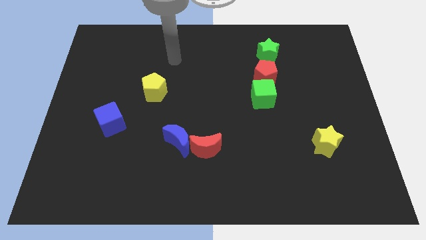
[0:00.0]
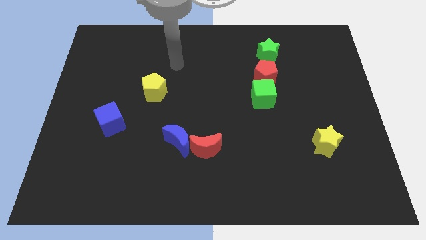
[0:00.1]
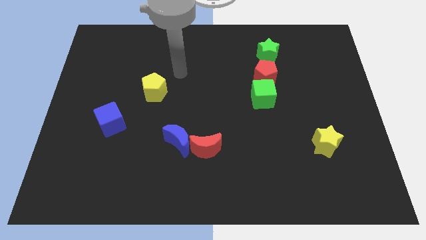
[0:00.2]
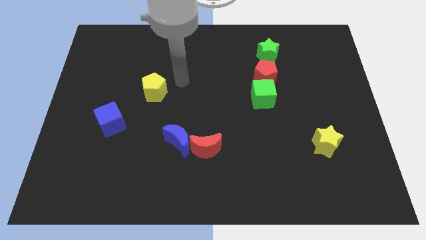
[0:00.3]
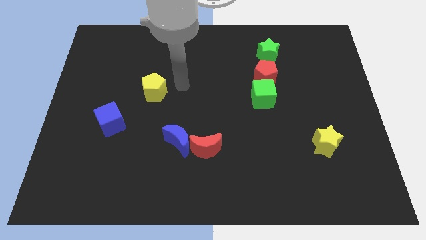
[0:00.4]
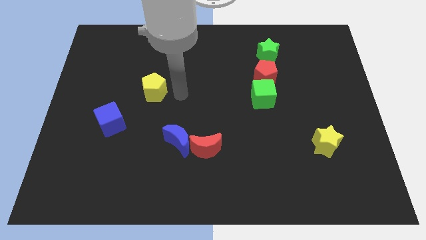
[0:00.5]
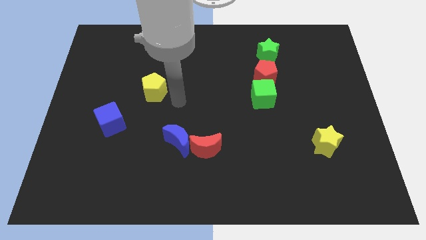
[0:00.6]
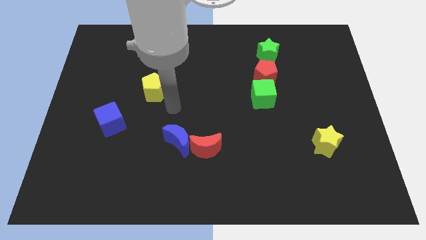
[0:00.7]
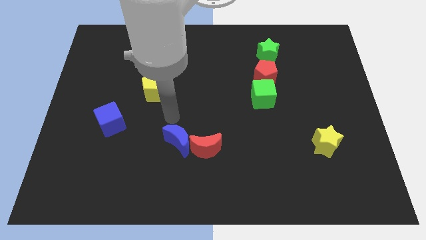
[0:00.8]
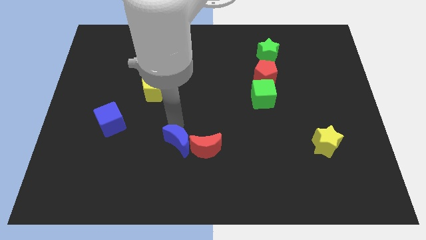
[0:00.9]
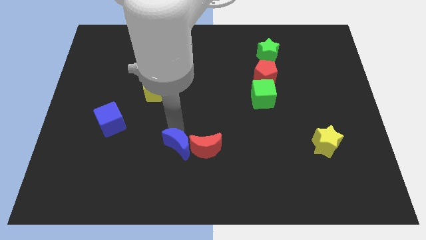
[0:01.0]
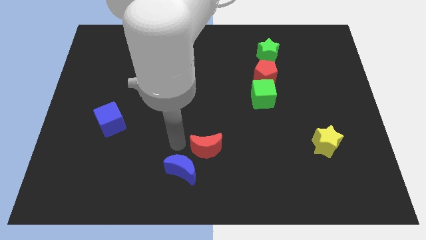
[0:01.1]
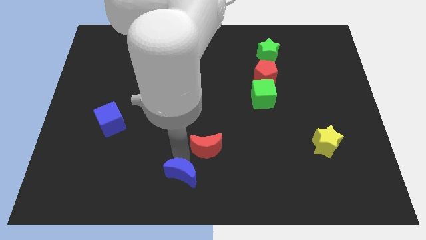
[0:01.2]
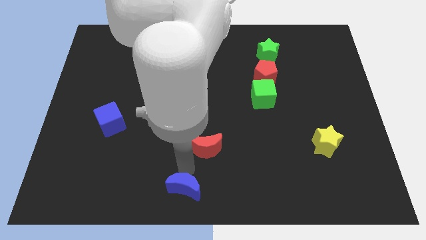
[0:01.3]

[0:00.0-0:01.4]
separate the red moon from the blue moon

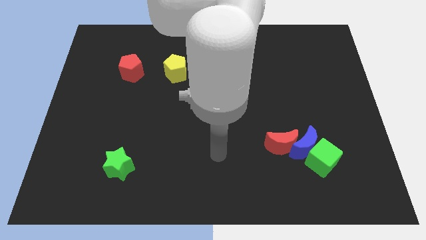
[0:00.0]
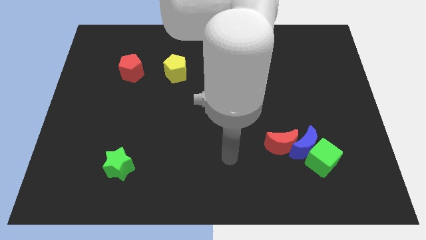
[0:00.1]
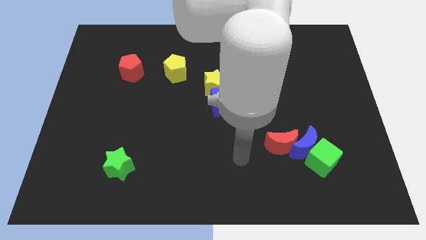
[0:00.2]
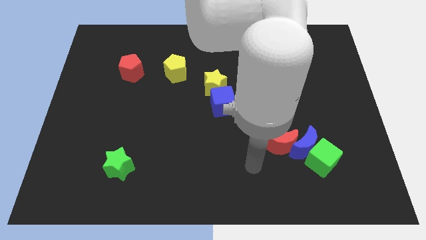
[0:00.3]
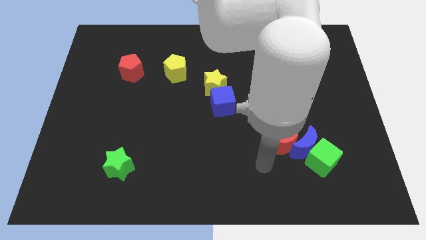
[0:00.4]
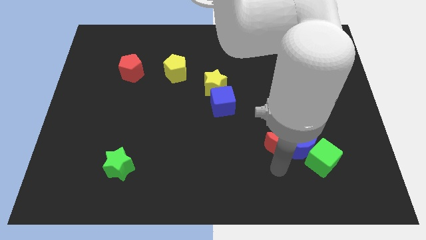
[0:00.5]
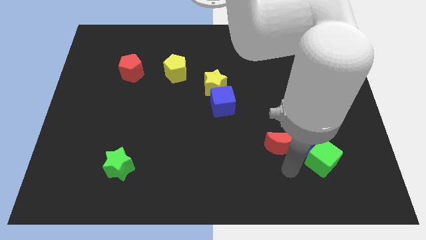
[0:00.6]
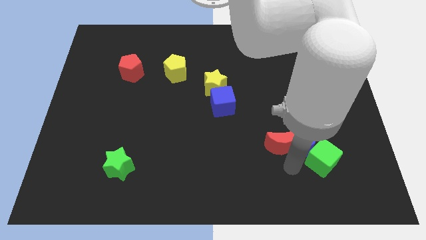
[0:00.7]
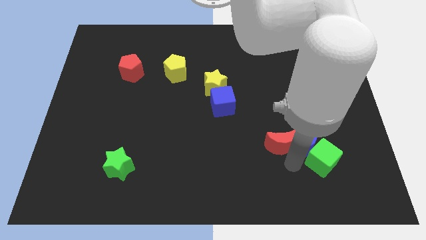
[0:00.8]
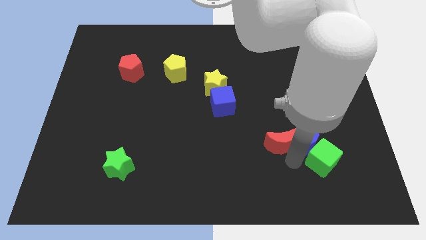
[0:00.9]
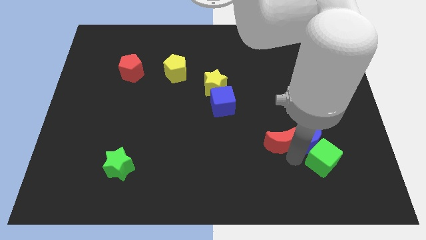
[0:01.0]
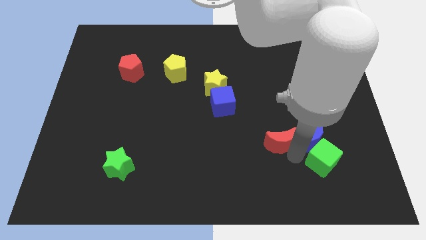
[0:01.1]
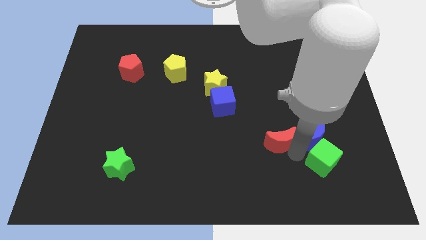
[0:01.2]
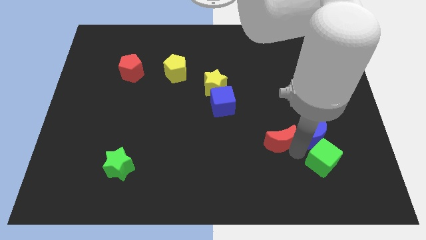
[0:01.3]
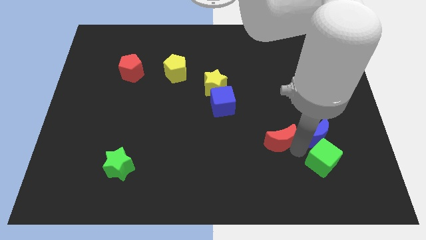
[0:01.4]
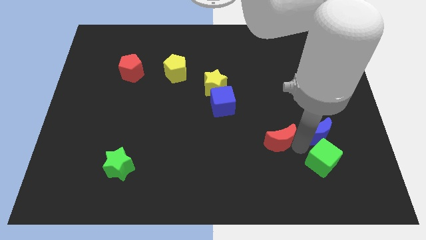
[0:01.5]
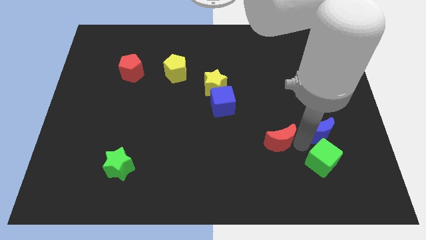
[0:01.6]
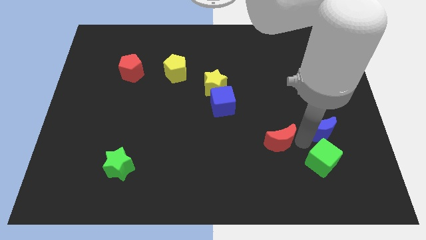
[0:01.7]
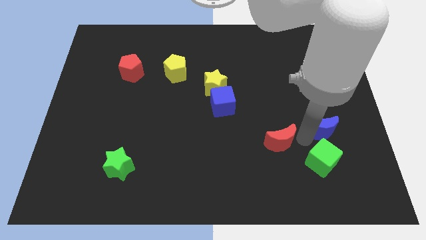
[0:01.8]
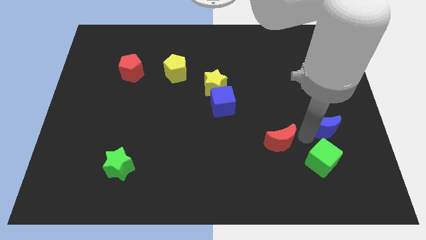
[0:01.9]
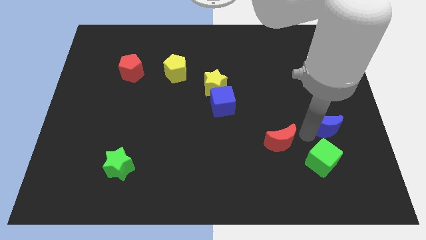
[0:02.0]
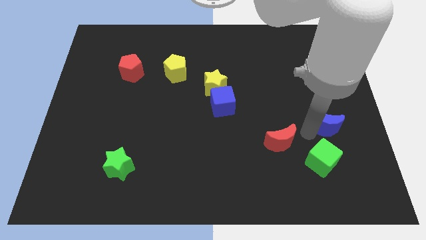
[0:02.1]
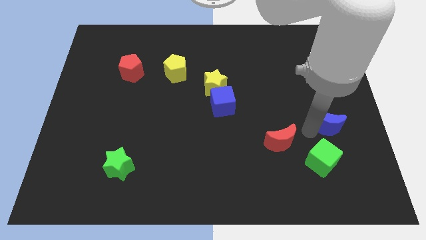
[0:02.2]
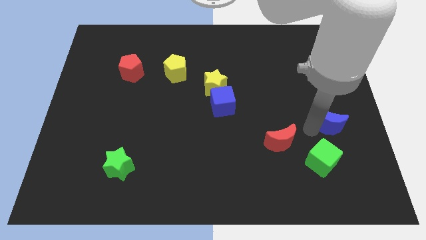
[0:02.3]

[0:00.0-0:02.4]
move the blue moon away from the green cube and red moon

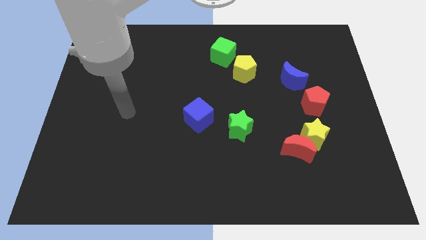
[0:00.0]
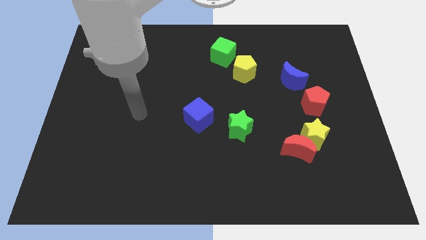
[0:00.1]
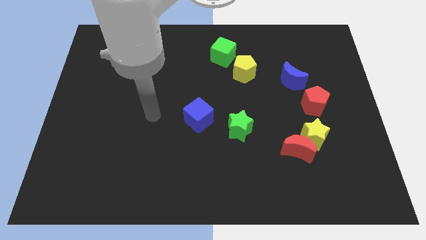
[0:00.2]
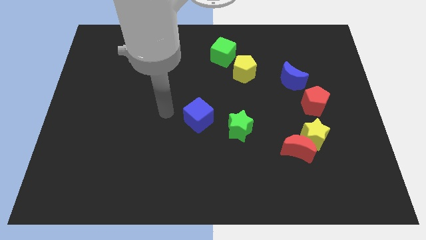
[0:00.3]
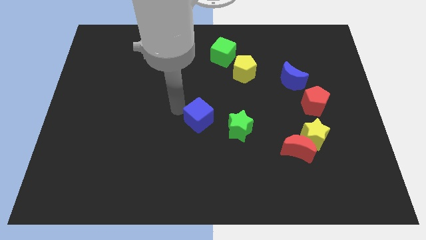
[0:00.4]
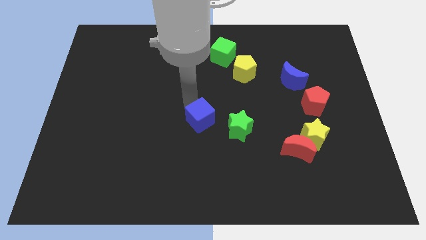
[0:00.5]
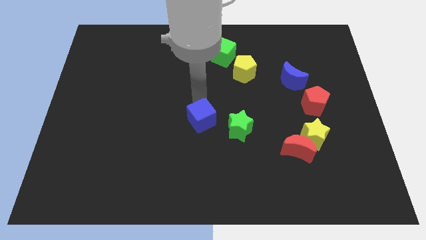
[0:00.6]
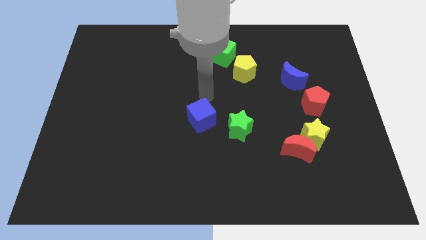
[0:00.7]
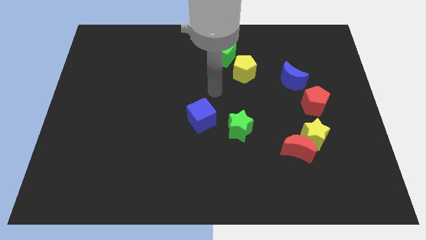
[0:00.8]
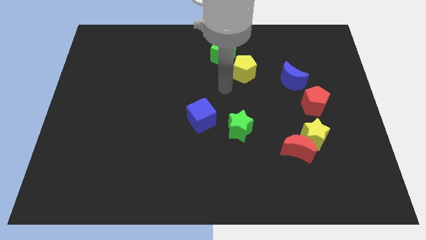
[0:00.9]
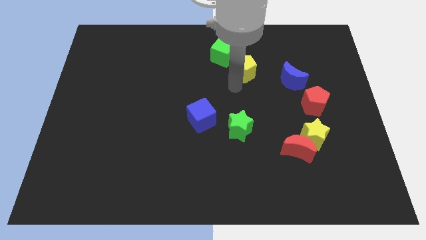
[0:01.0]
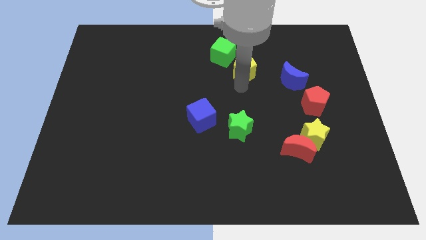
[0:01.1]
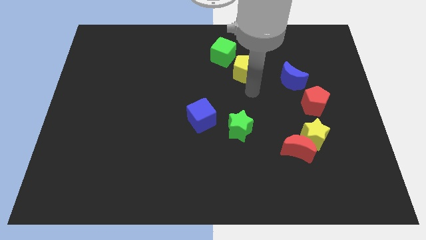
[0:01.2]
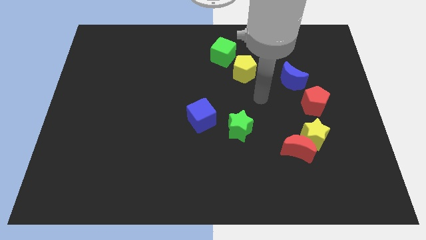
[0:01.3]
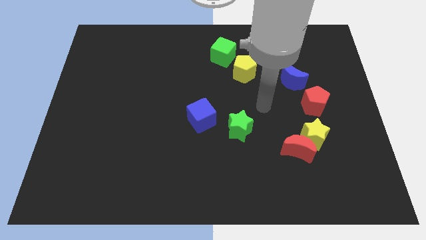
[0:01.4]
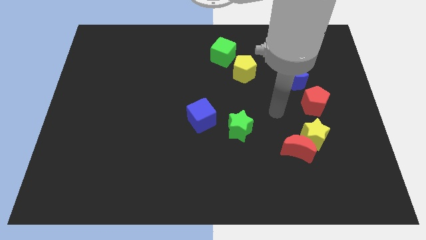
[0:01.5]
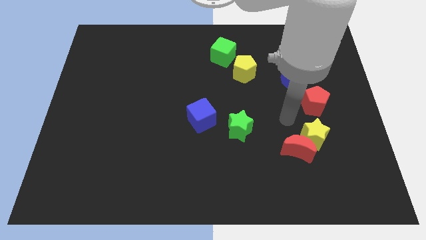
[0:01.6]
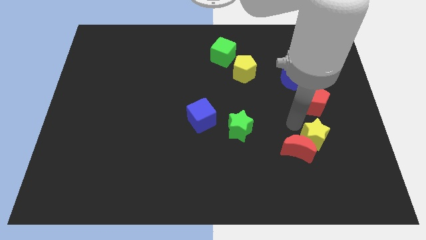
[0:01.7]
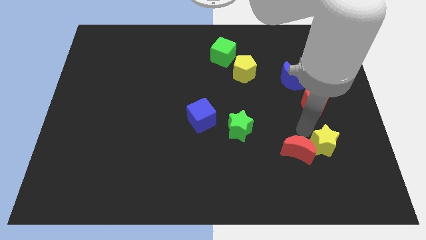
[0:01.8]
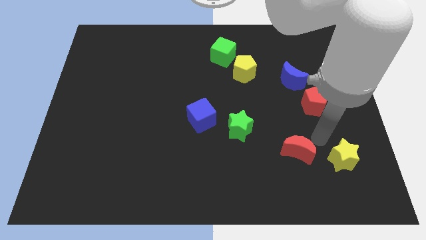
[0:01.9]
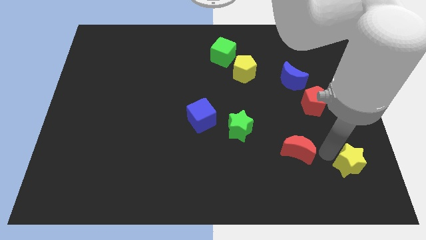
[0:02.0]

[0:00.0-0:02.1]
separate the red moon from the yellow star

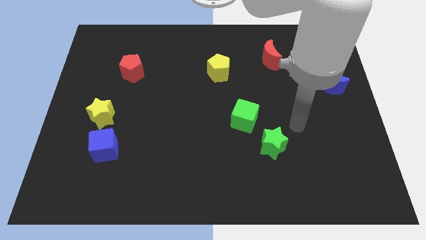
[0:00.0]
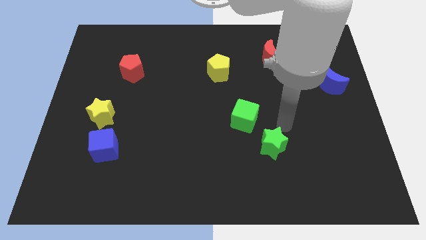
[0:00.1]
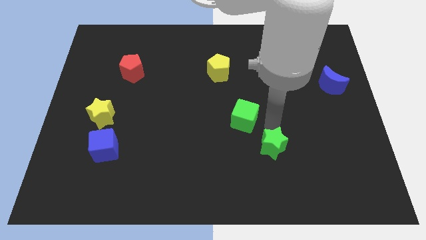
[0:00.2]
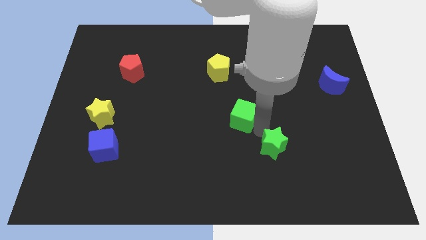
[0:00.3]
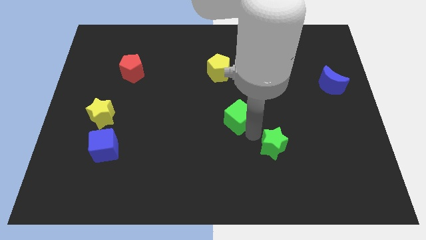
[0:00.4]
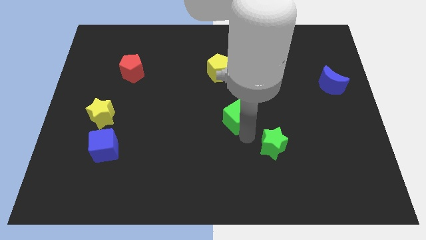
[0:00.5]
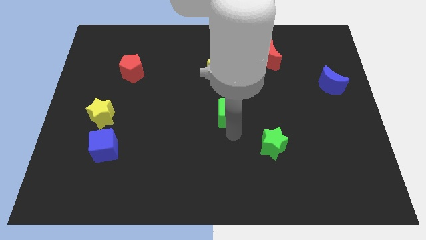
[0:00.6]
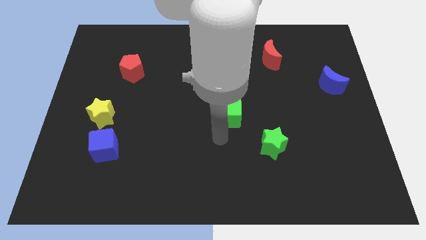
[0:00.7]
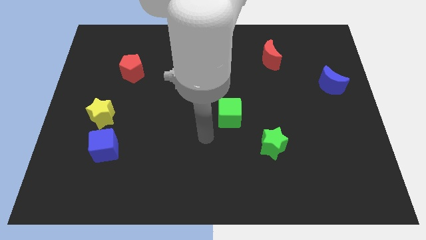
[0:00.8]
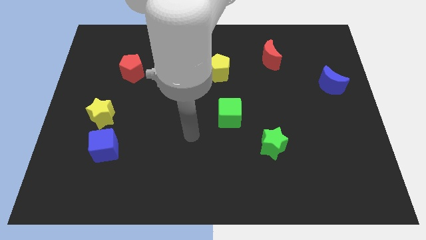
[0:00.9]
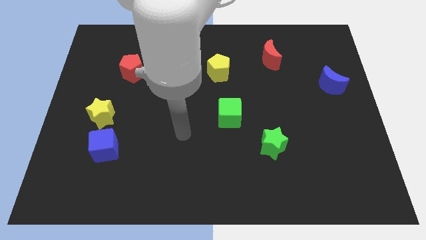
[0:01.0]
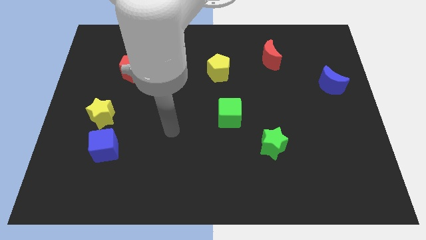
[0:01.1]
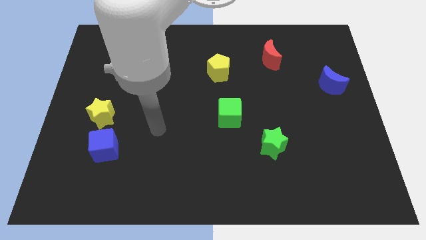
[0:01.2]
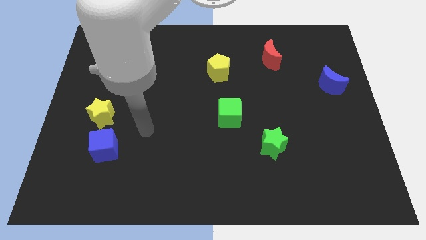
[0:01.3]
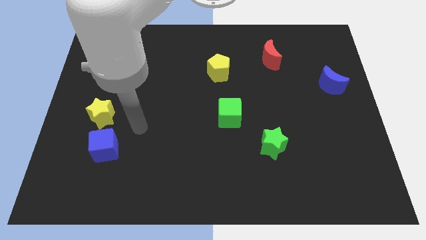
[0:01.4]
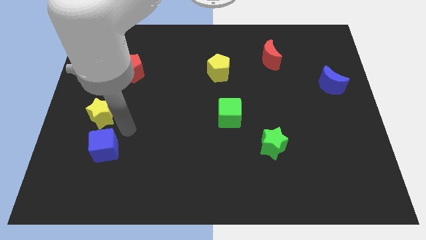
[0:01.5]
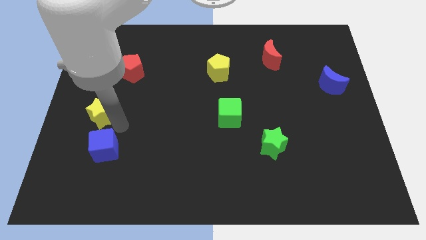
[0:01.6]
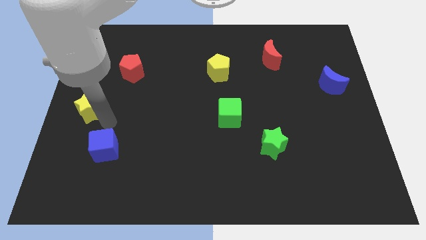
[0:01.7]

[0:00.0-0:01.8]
pull the blue cube apart from the yellow star

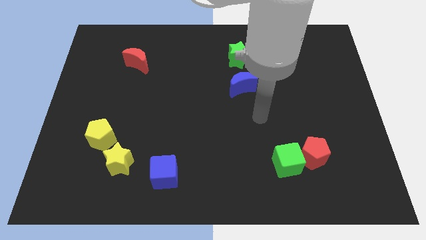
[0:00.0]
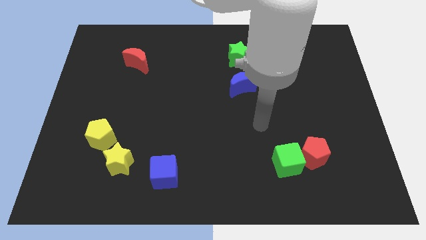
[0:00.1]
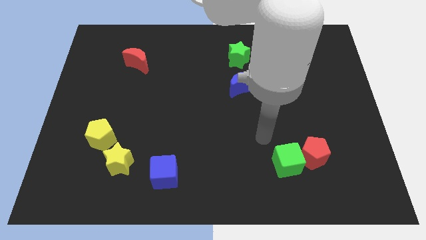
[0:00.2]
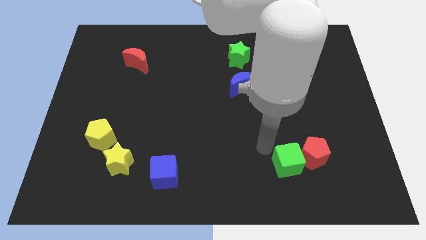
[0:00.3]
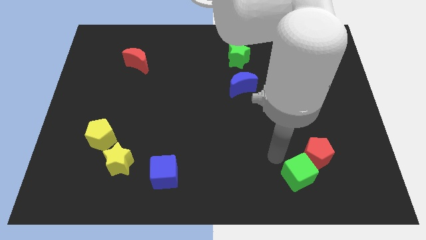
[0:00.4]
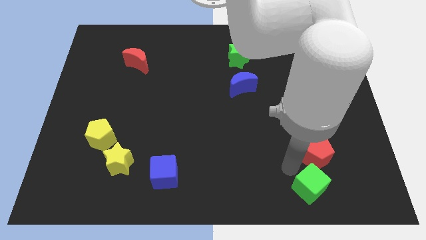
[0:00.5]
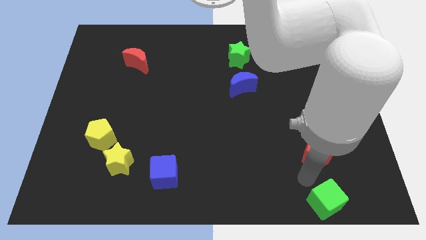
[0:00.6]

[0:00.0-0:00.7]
pull the red pentagon apart from the green cube

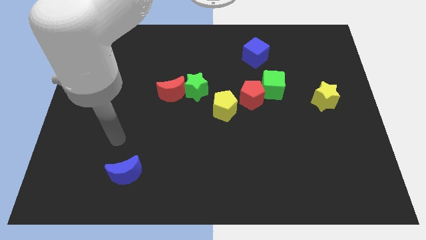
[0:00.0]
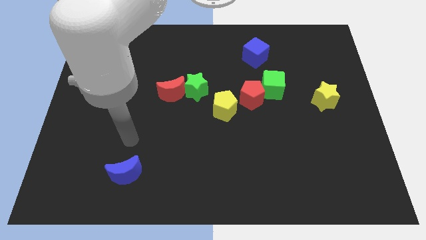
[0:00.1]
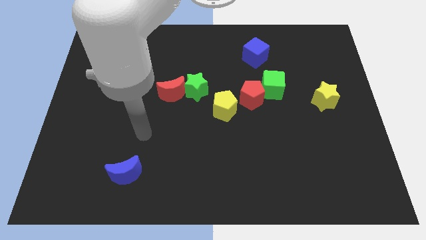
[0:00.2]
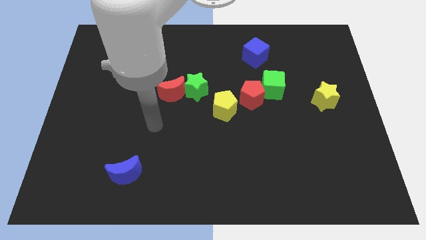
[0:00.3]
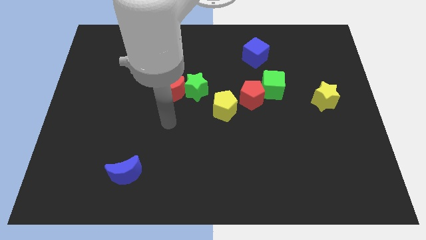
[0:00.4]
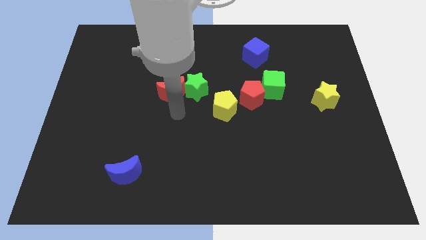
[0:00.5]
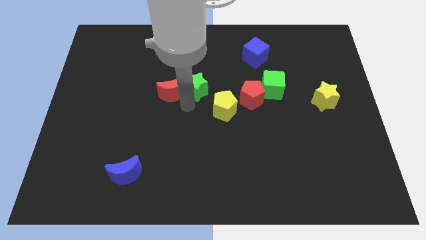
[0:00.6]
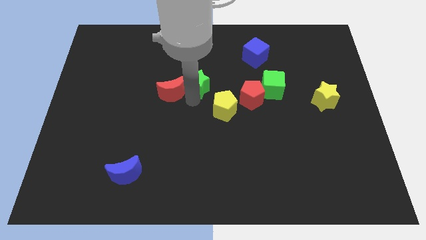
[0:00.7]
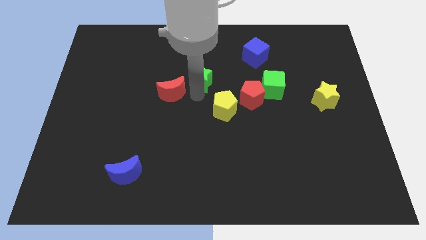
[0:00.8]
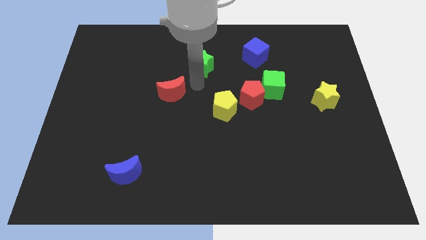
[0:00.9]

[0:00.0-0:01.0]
move the red moon away from the green star
